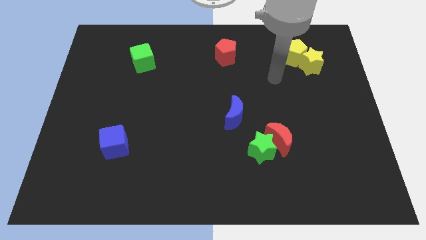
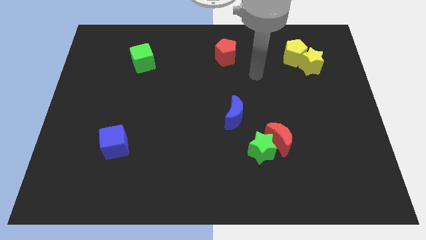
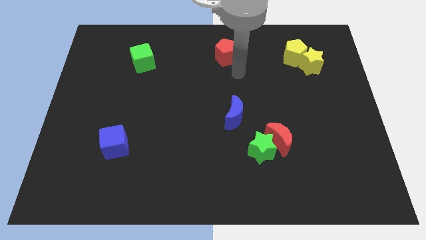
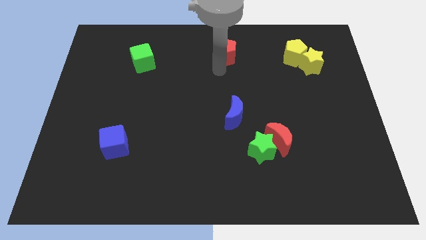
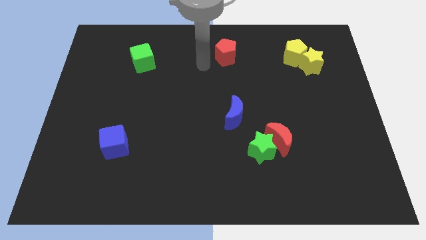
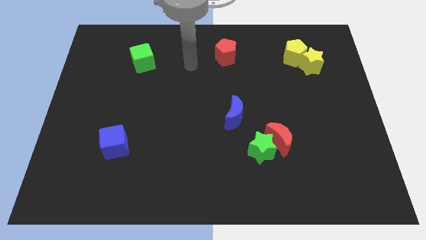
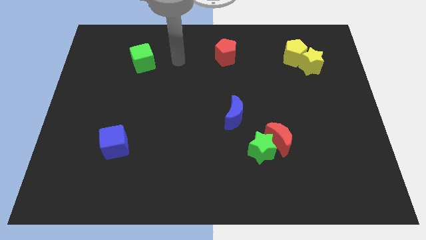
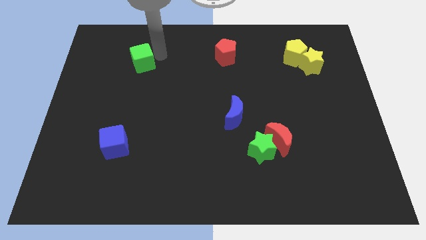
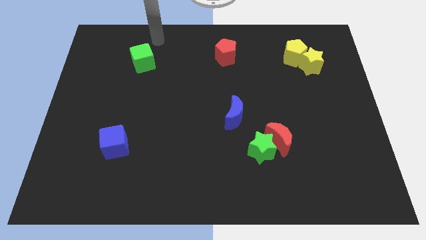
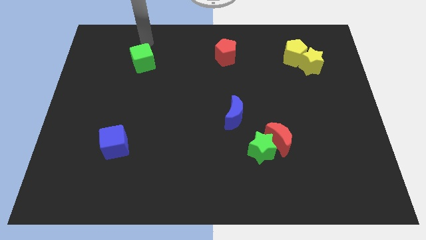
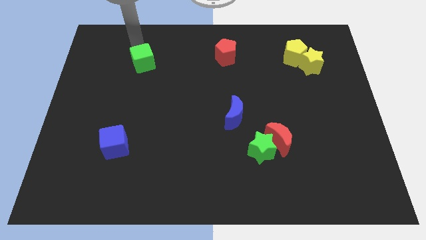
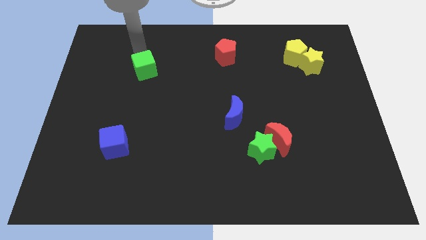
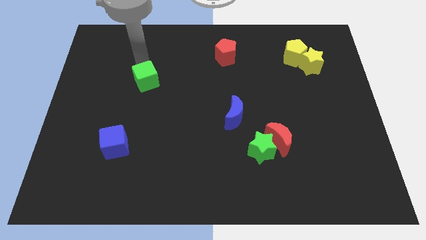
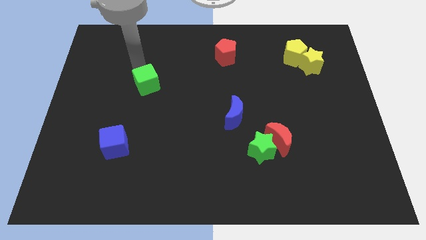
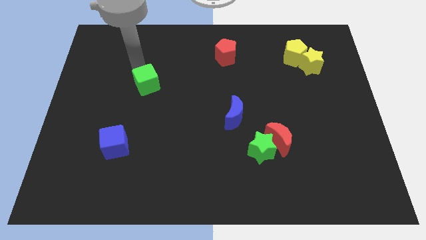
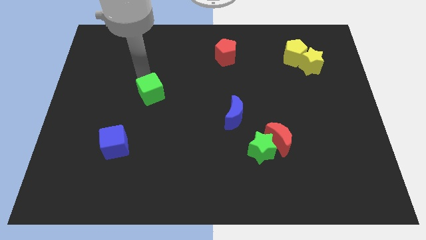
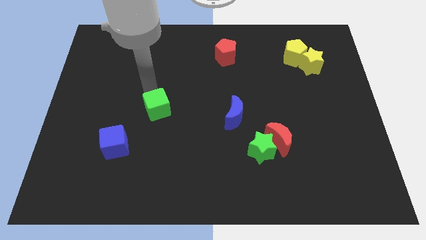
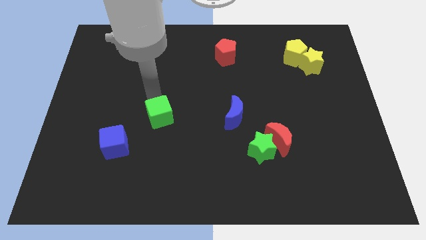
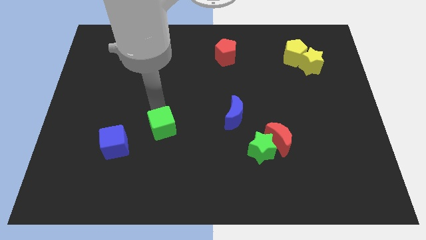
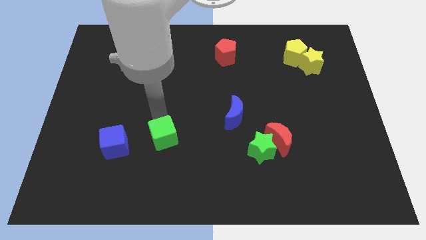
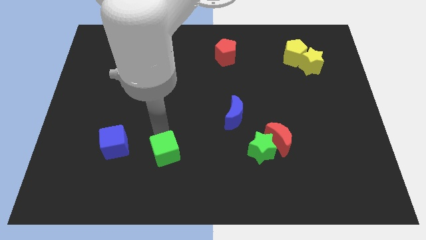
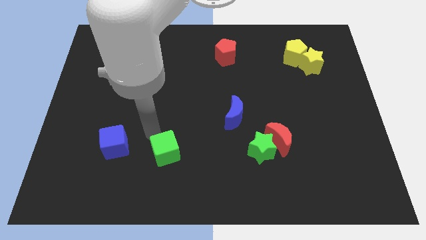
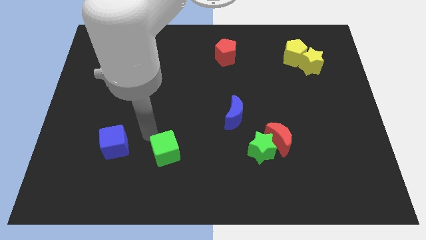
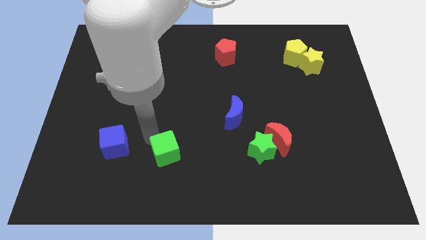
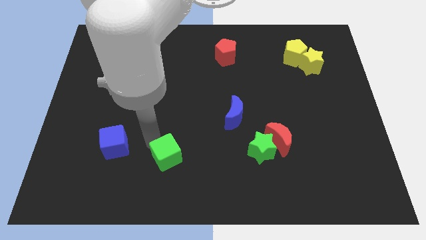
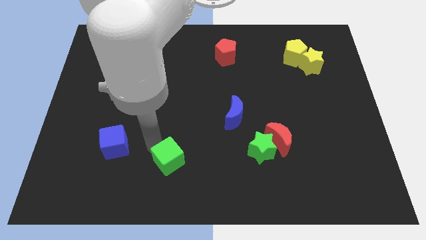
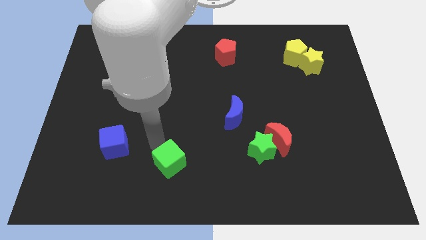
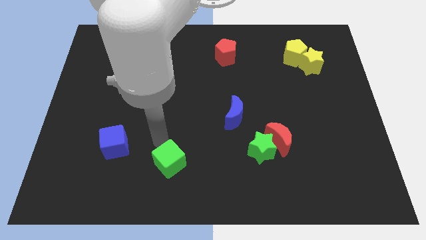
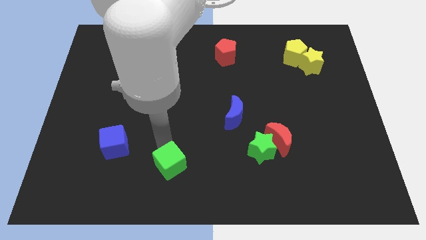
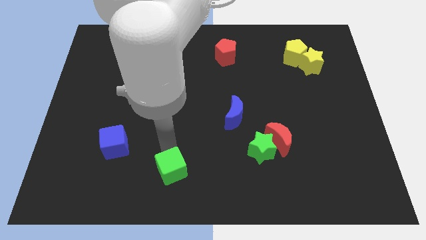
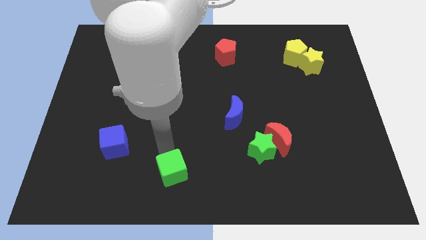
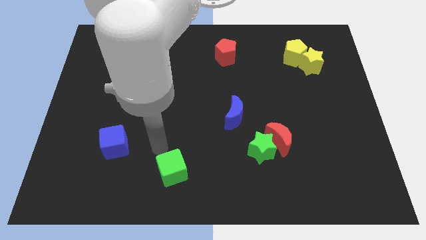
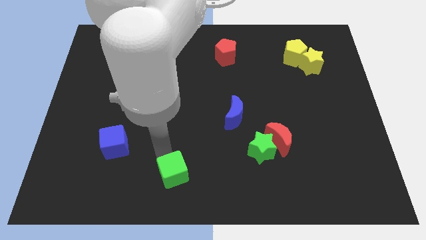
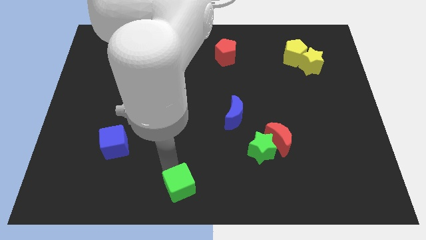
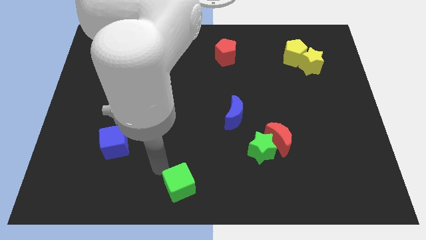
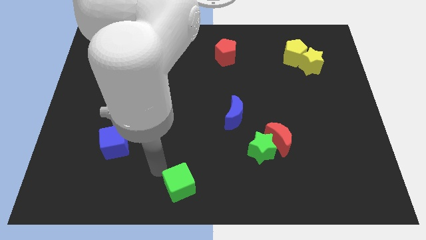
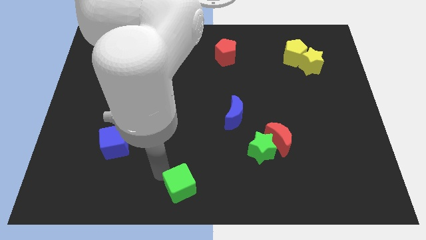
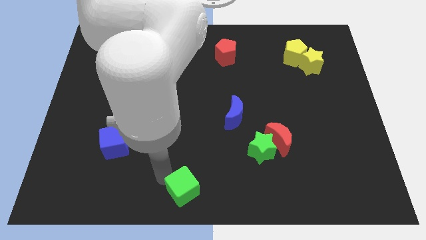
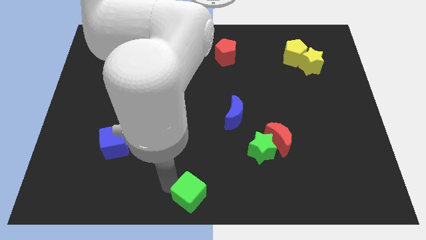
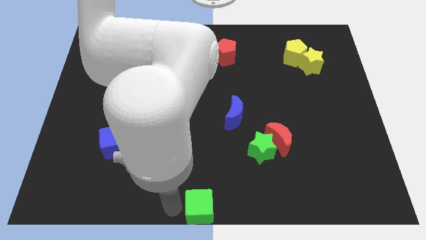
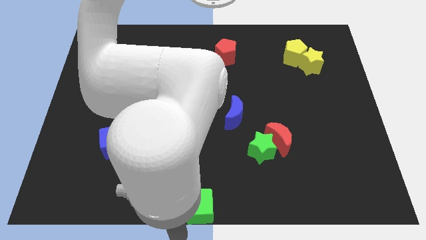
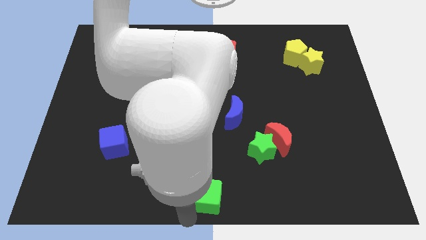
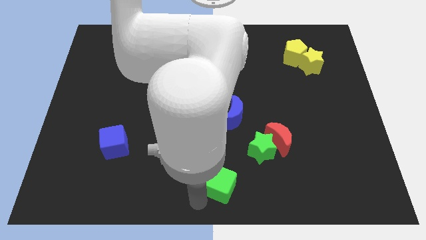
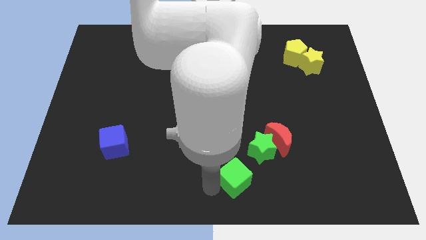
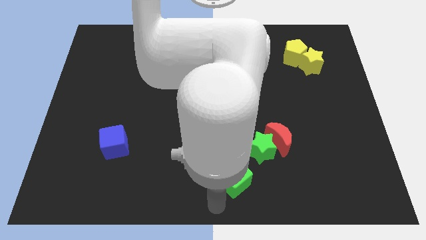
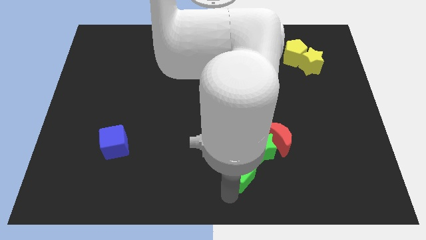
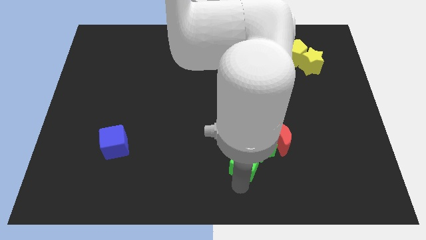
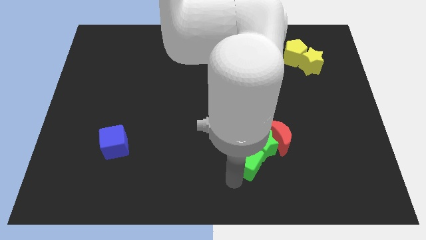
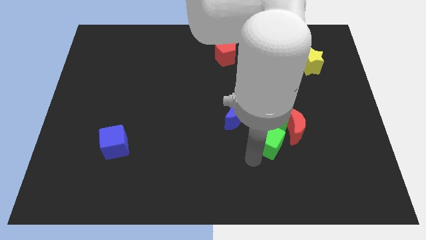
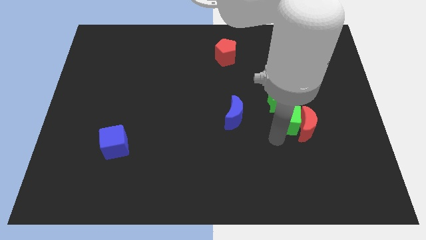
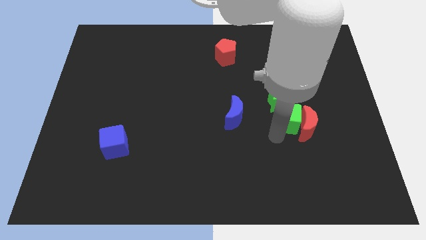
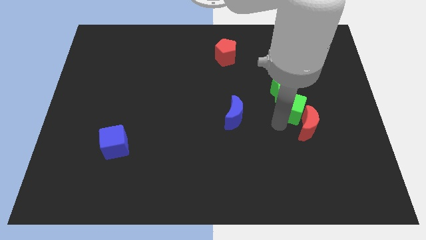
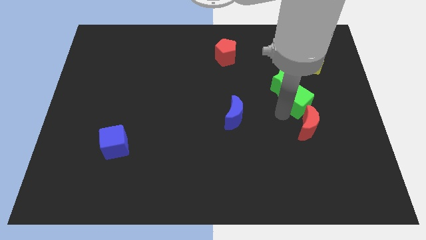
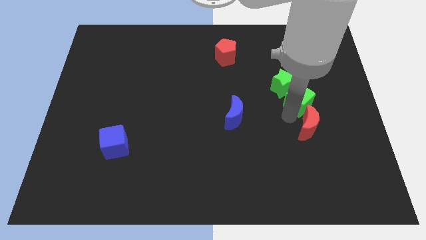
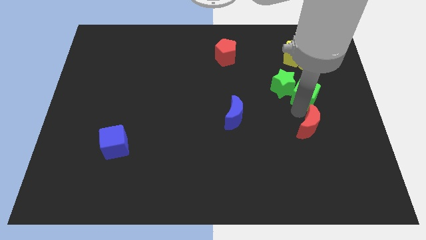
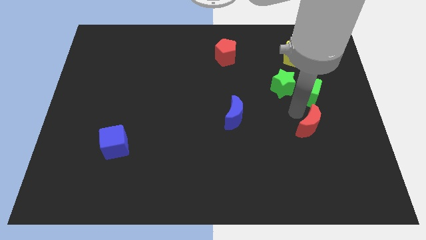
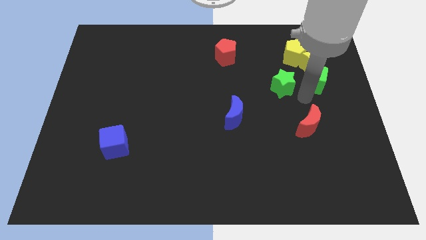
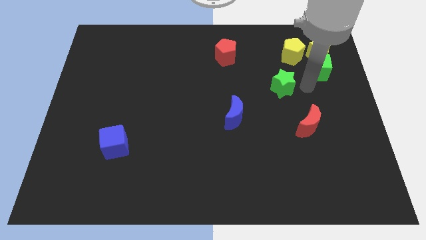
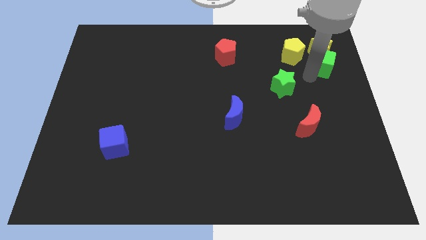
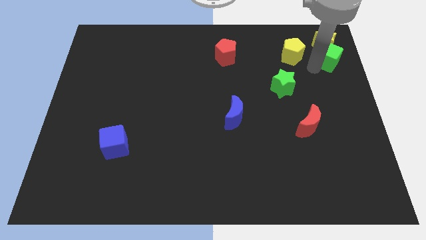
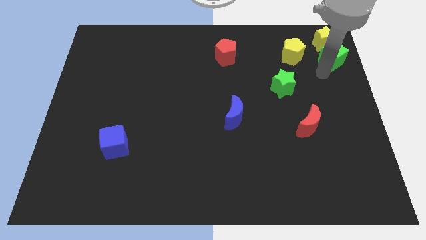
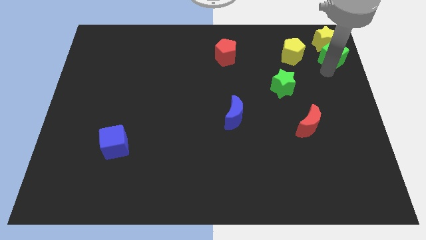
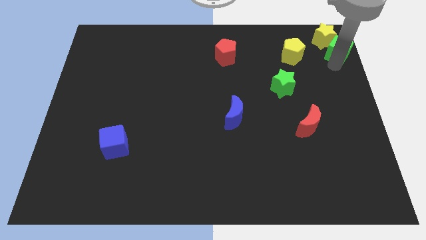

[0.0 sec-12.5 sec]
push the green cube to the top right of the board
